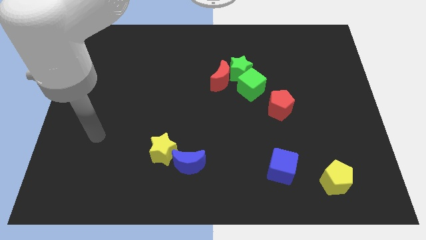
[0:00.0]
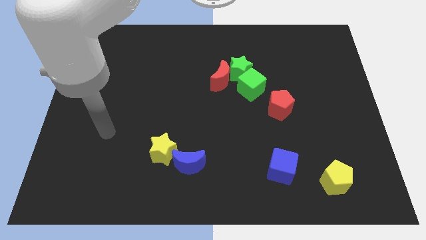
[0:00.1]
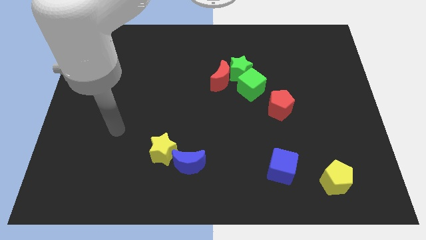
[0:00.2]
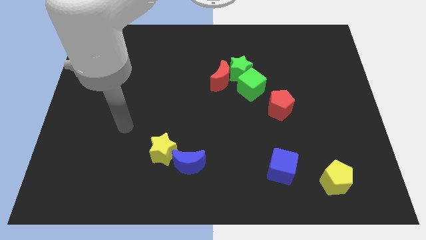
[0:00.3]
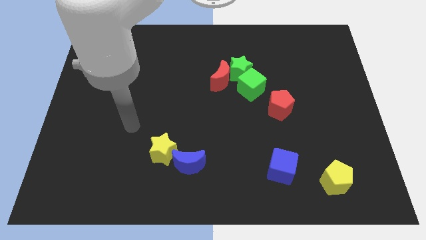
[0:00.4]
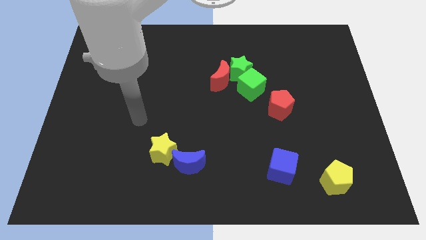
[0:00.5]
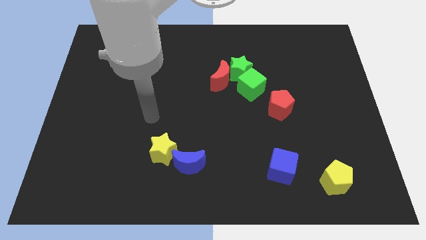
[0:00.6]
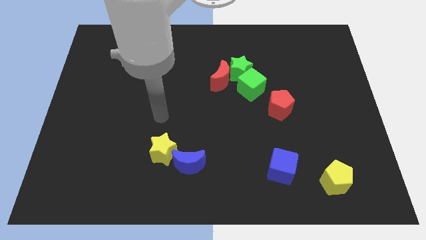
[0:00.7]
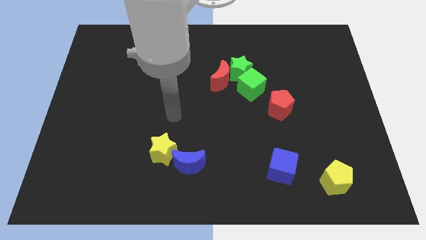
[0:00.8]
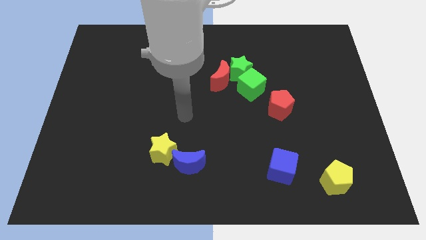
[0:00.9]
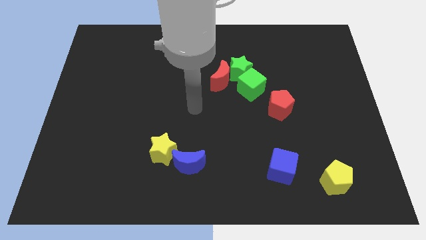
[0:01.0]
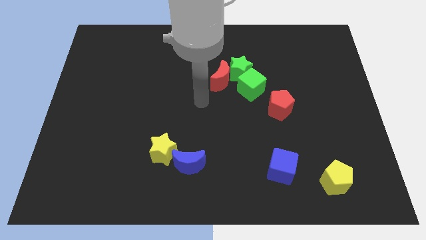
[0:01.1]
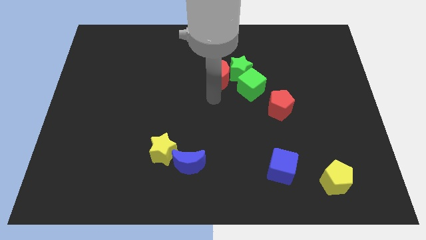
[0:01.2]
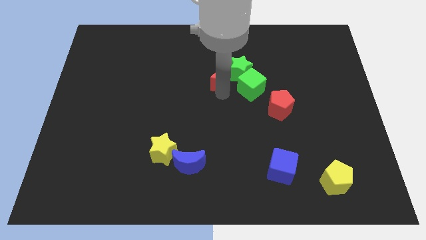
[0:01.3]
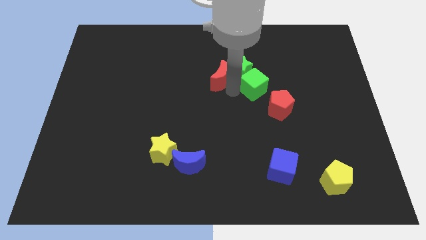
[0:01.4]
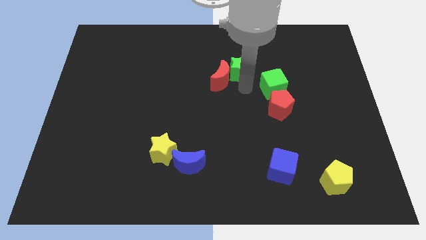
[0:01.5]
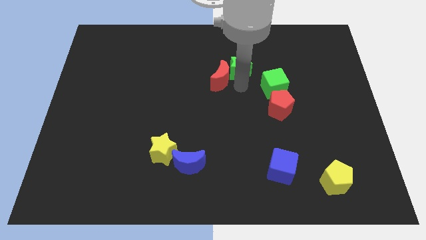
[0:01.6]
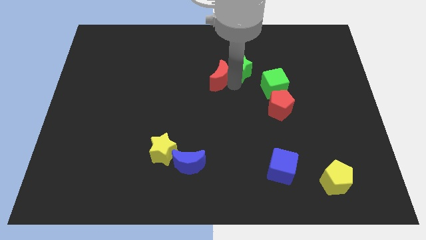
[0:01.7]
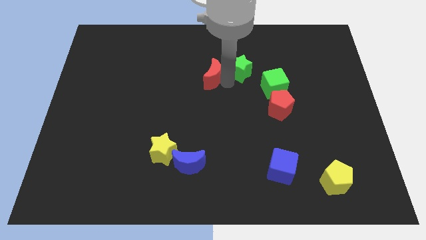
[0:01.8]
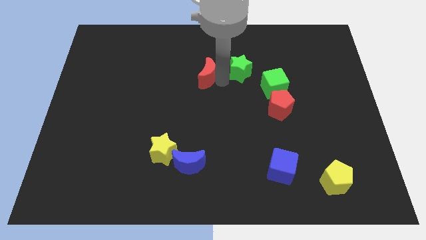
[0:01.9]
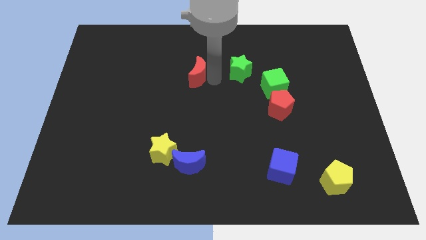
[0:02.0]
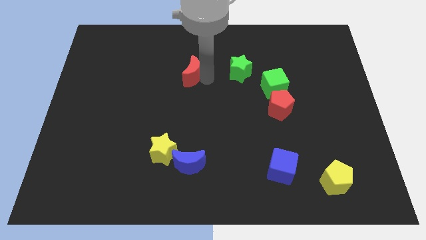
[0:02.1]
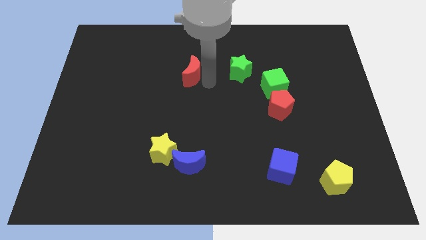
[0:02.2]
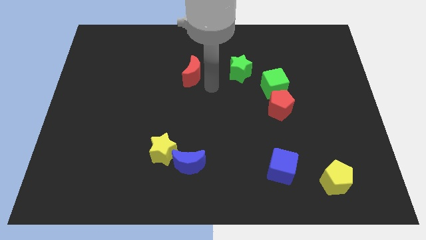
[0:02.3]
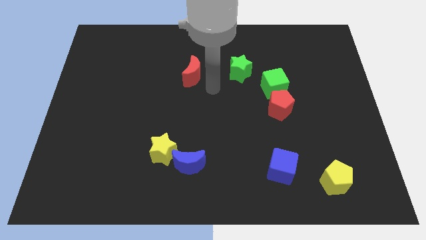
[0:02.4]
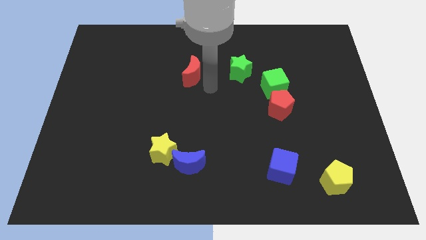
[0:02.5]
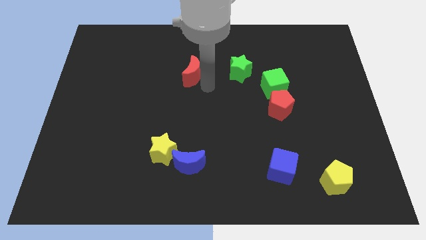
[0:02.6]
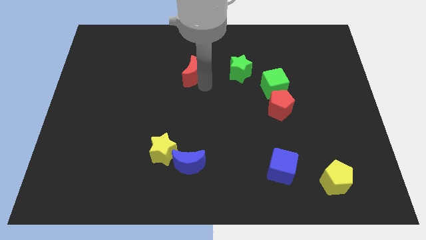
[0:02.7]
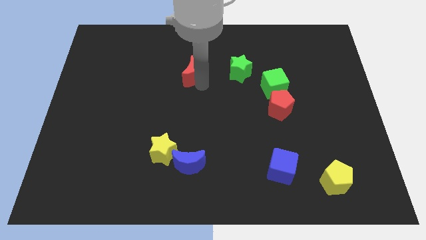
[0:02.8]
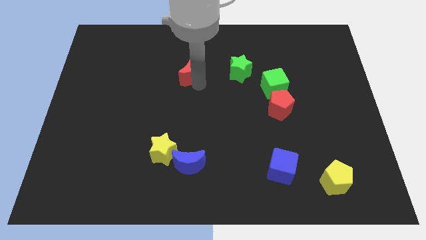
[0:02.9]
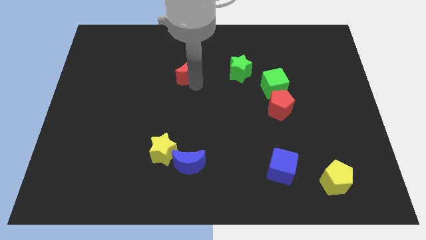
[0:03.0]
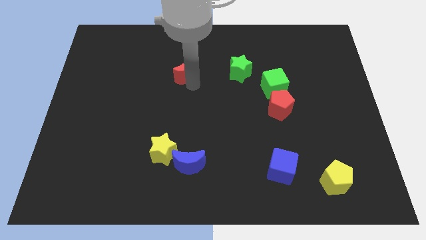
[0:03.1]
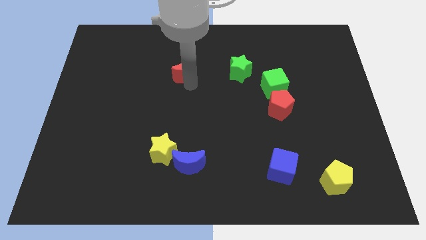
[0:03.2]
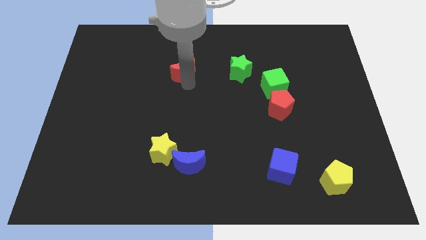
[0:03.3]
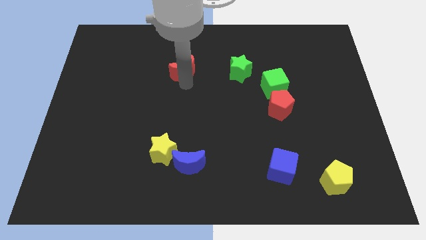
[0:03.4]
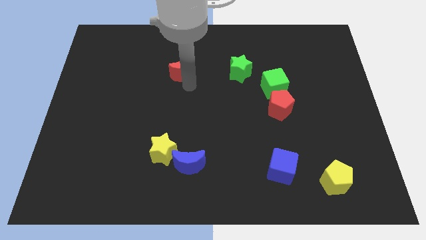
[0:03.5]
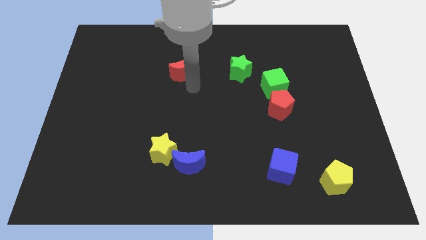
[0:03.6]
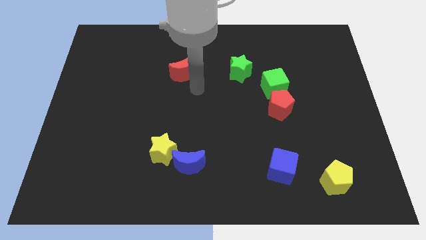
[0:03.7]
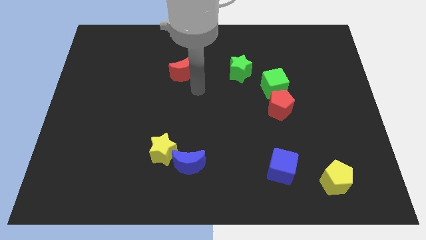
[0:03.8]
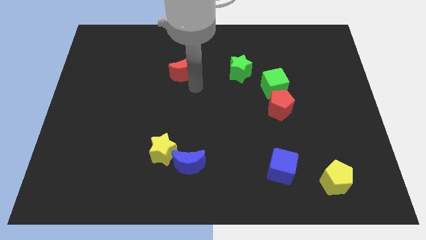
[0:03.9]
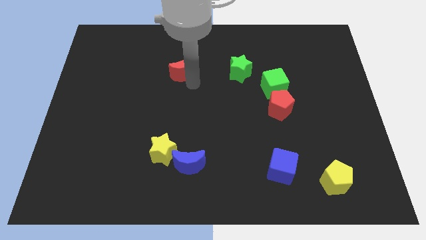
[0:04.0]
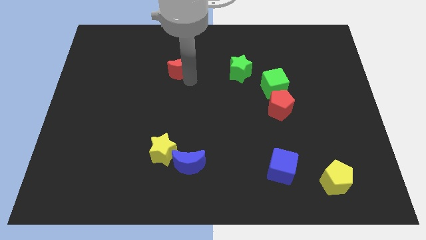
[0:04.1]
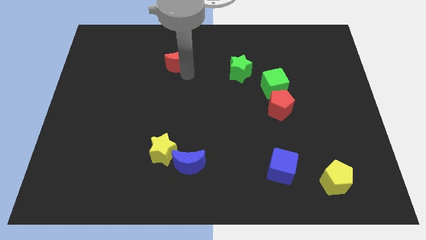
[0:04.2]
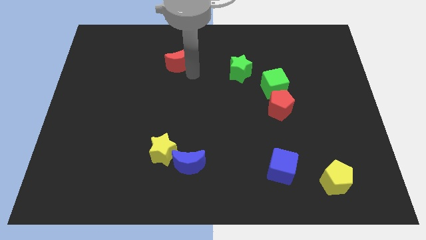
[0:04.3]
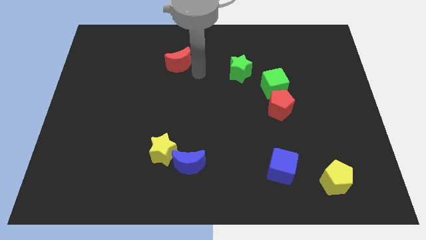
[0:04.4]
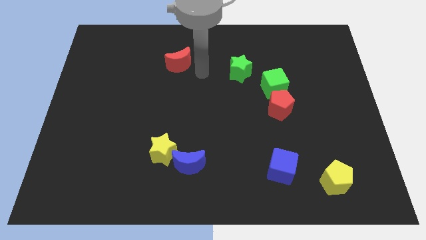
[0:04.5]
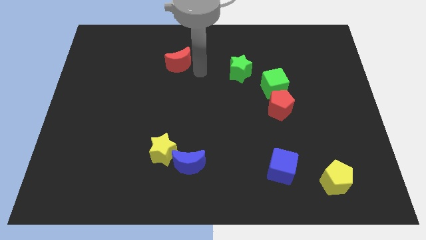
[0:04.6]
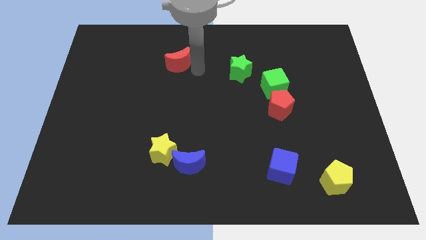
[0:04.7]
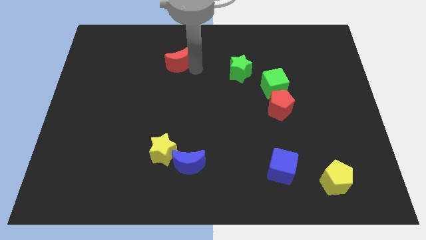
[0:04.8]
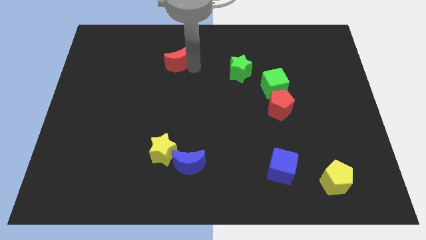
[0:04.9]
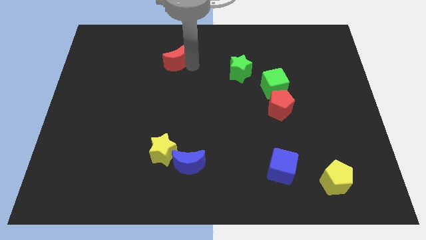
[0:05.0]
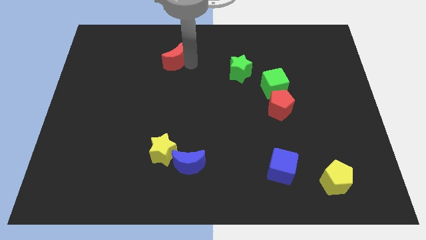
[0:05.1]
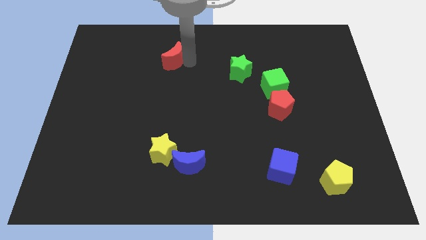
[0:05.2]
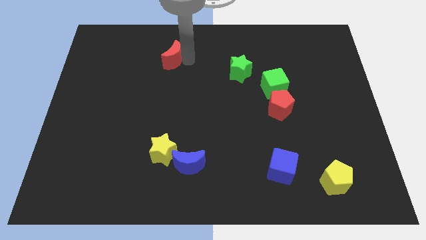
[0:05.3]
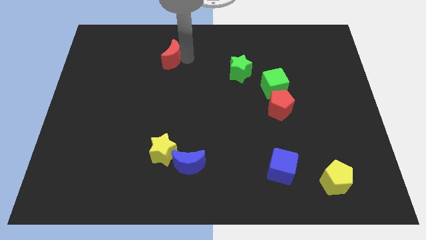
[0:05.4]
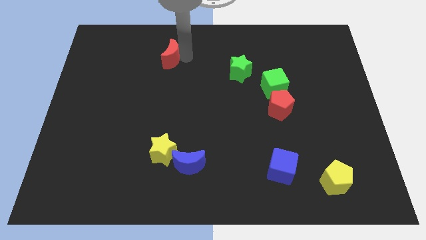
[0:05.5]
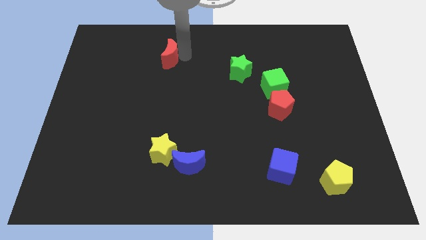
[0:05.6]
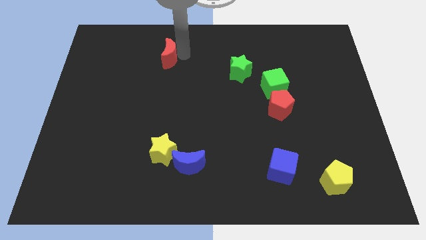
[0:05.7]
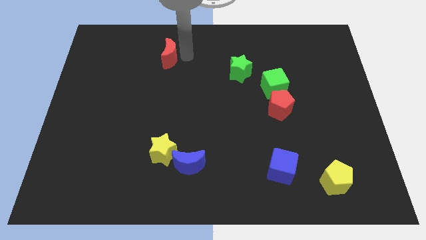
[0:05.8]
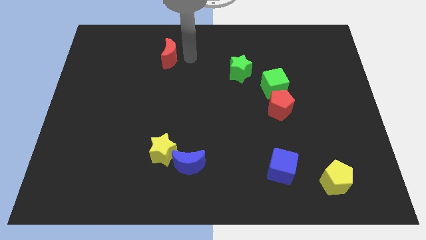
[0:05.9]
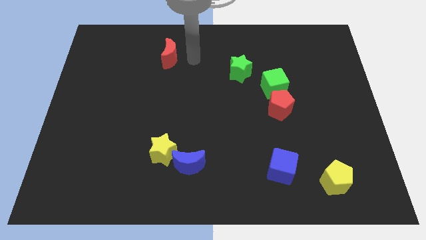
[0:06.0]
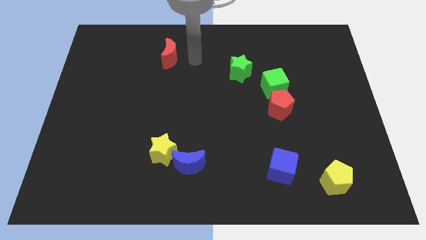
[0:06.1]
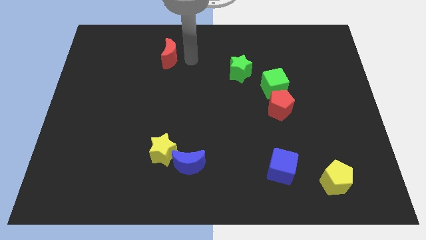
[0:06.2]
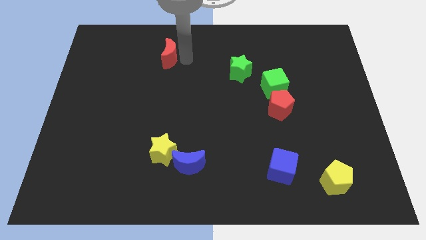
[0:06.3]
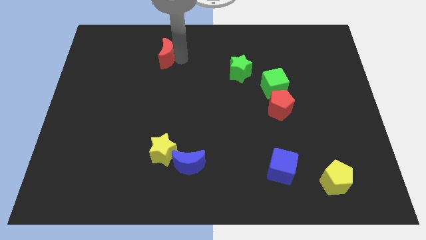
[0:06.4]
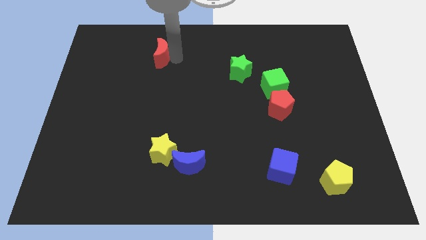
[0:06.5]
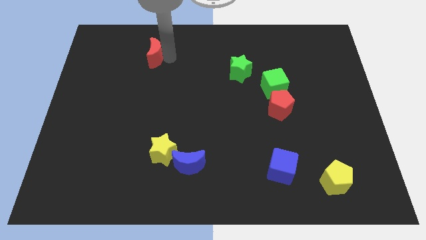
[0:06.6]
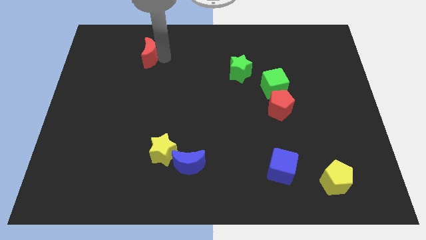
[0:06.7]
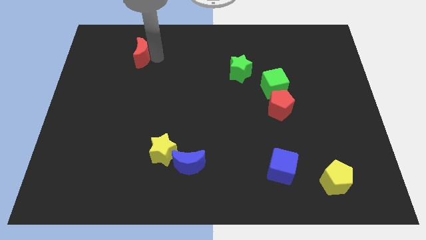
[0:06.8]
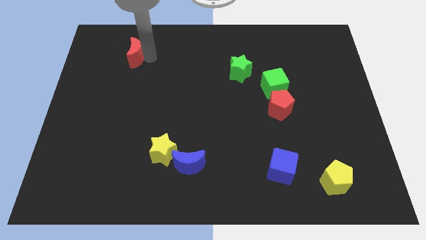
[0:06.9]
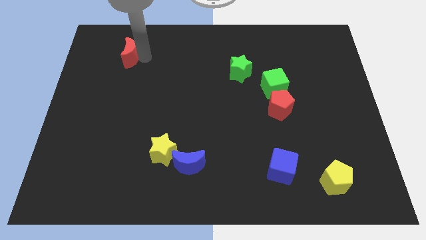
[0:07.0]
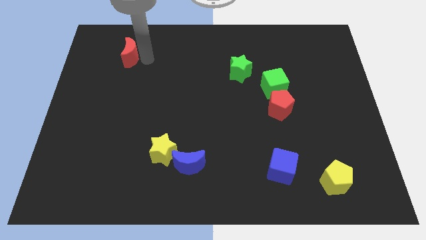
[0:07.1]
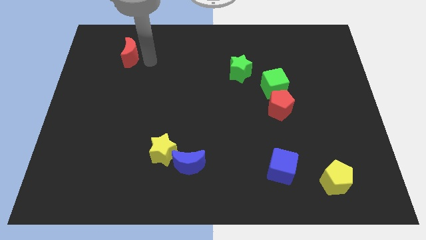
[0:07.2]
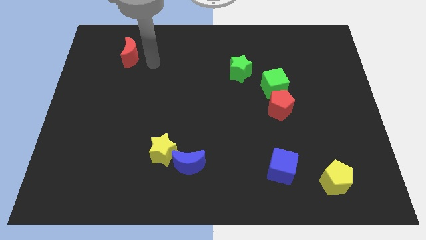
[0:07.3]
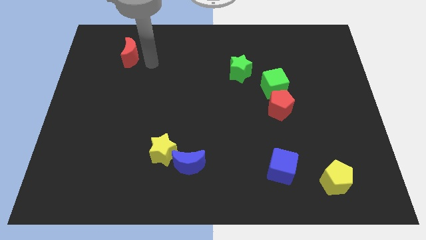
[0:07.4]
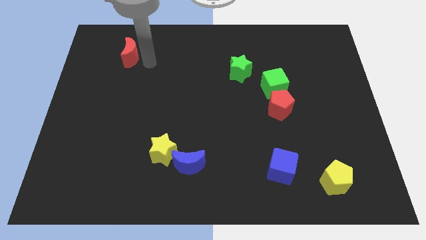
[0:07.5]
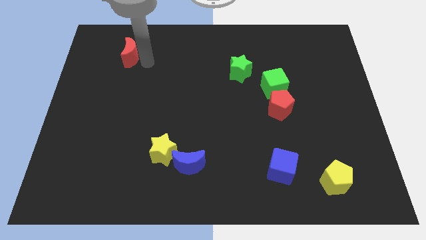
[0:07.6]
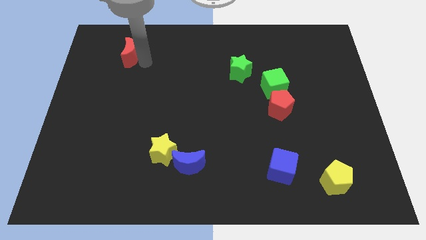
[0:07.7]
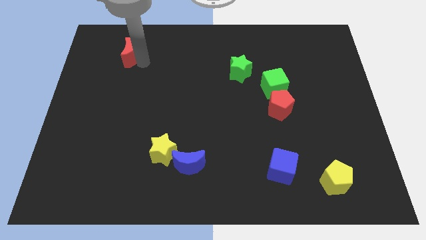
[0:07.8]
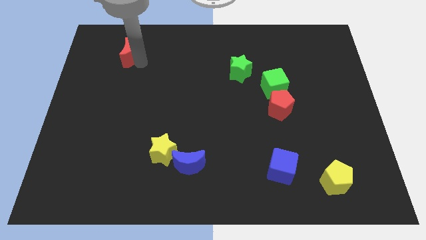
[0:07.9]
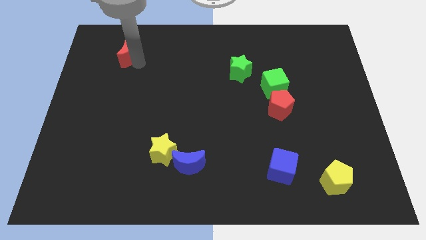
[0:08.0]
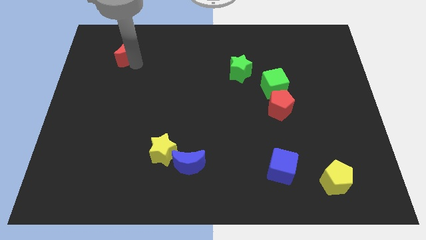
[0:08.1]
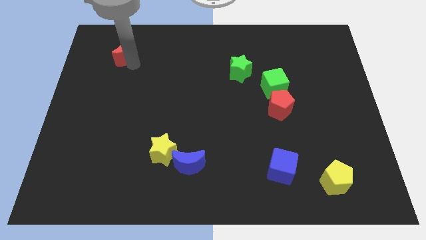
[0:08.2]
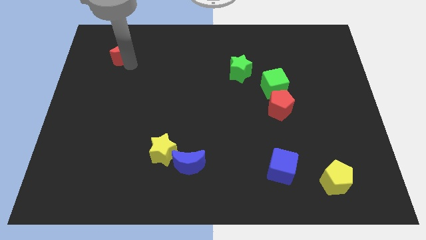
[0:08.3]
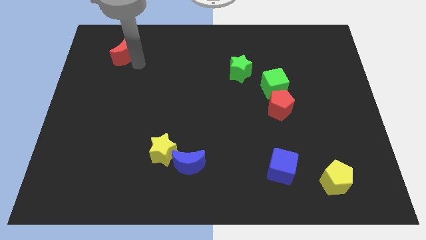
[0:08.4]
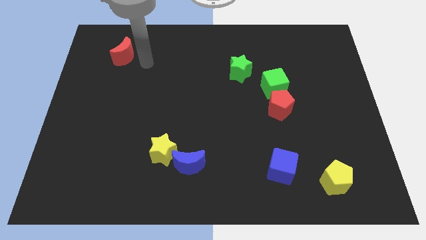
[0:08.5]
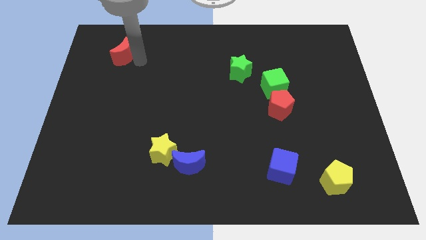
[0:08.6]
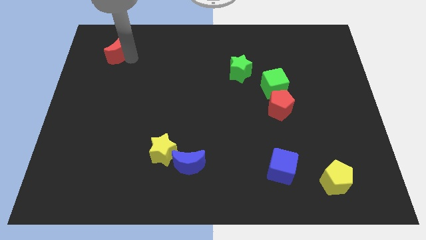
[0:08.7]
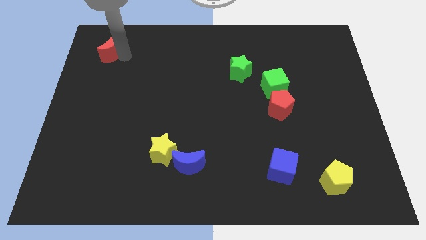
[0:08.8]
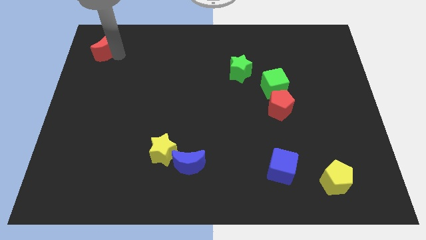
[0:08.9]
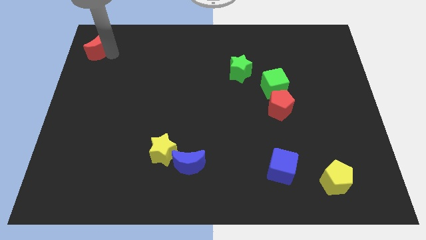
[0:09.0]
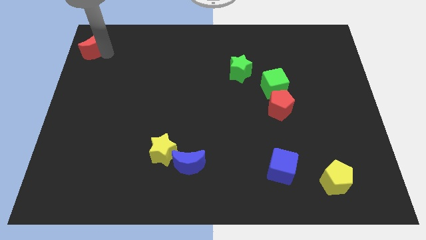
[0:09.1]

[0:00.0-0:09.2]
move the red moon to the upper left corner
